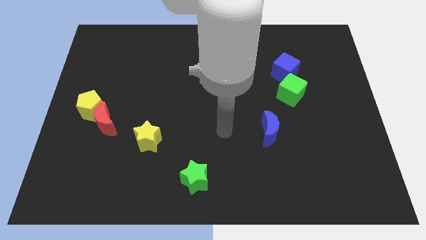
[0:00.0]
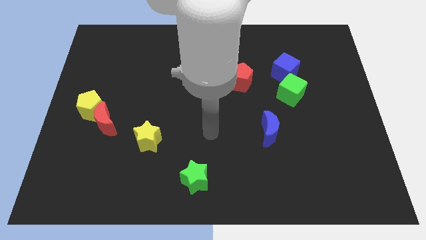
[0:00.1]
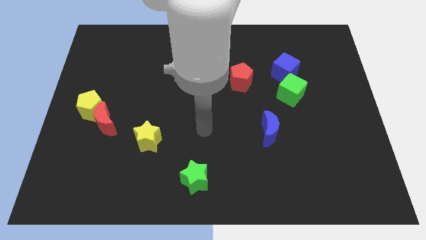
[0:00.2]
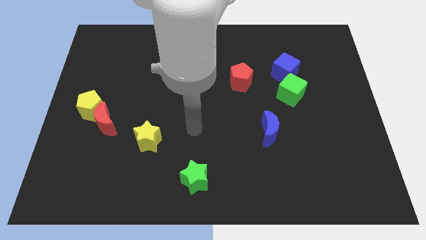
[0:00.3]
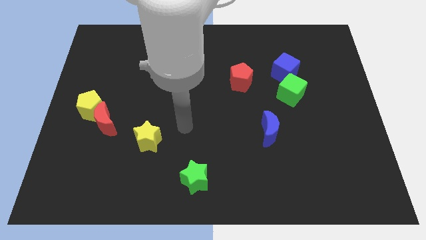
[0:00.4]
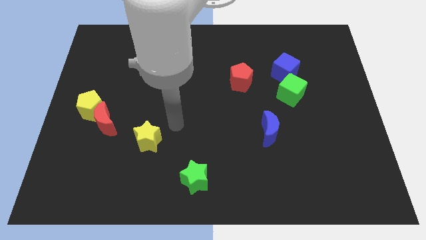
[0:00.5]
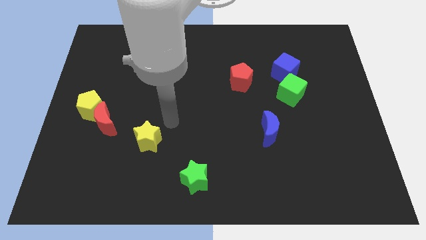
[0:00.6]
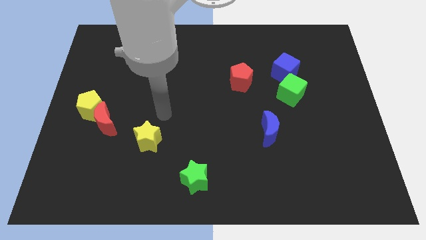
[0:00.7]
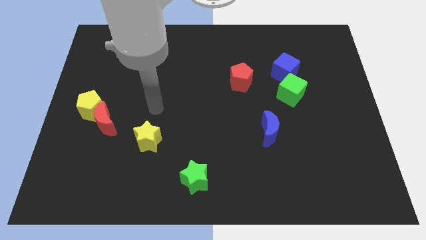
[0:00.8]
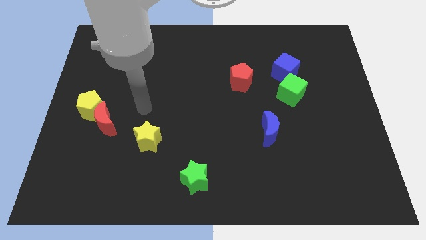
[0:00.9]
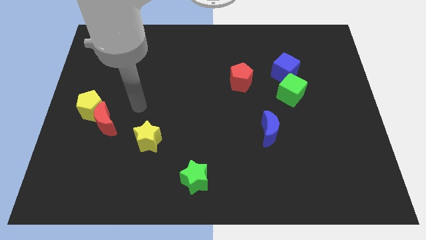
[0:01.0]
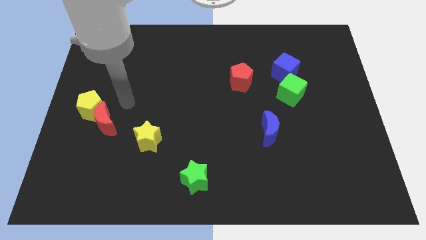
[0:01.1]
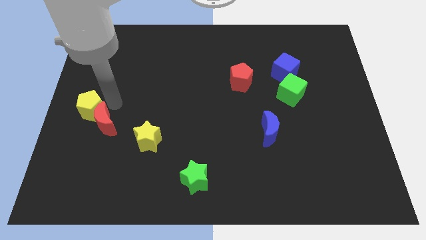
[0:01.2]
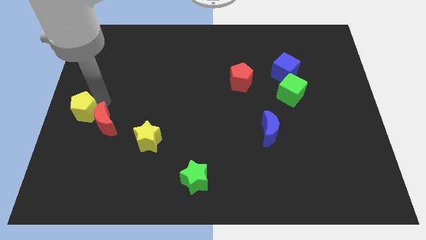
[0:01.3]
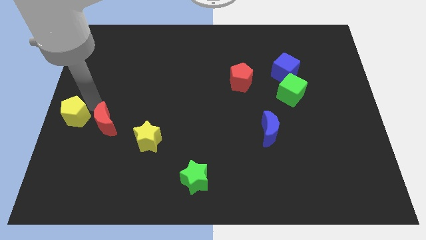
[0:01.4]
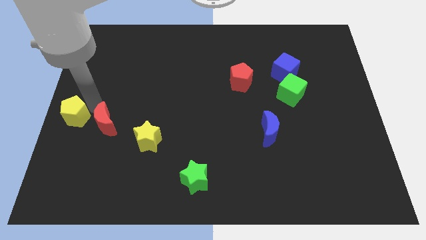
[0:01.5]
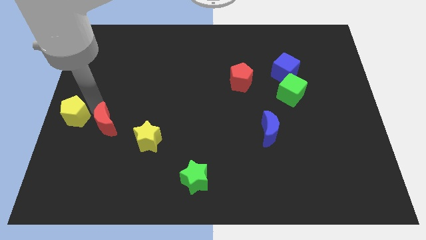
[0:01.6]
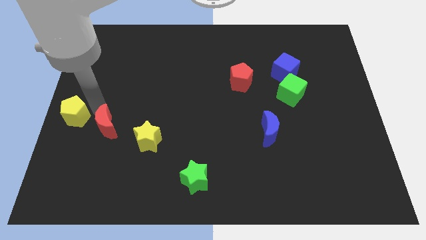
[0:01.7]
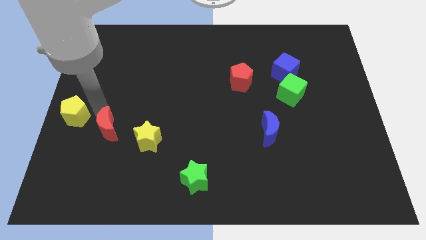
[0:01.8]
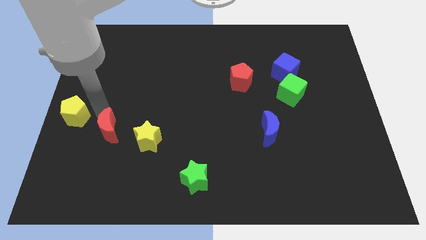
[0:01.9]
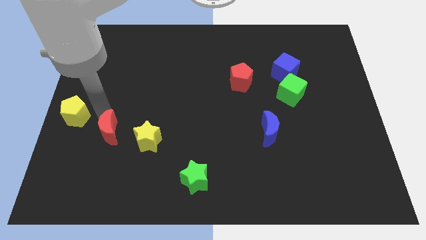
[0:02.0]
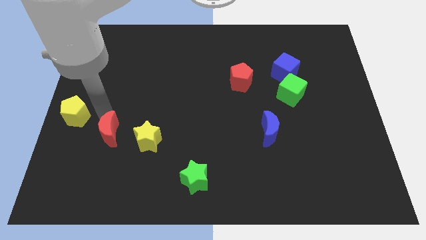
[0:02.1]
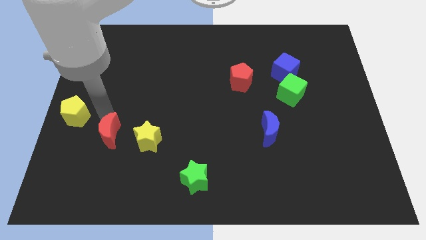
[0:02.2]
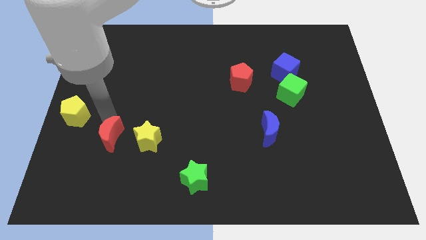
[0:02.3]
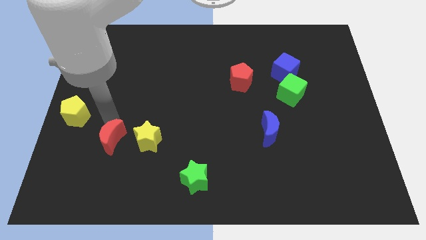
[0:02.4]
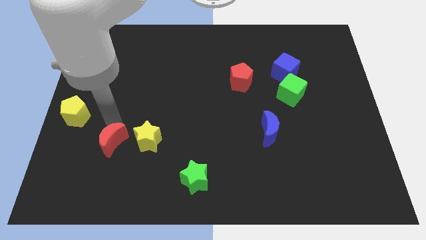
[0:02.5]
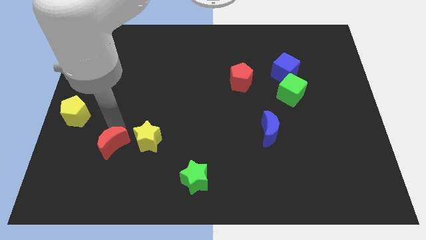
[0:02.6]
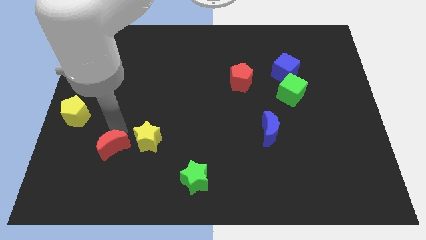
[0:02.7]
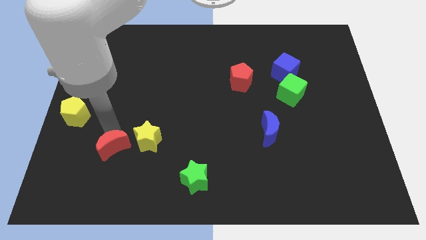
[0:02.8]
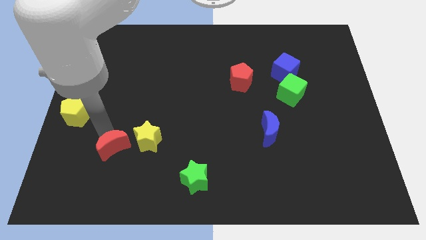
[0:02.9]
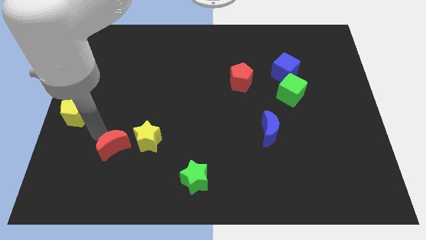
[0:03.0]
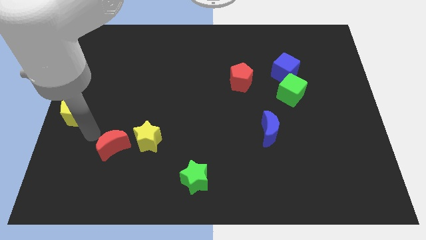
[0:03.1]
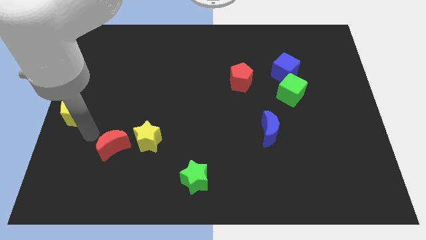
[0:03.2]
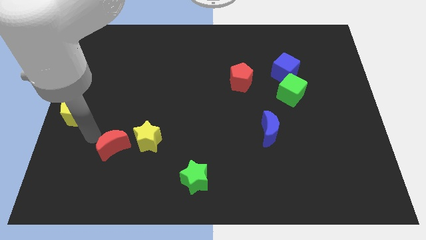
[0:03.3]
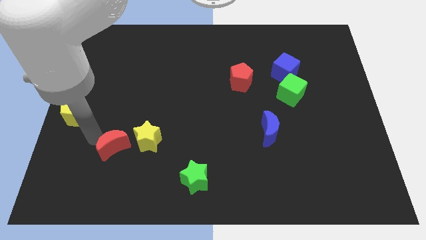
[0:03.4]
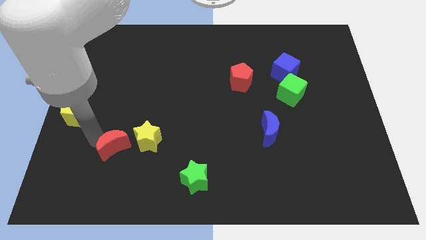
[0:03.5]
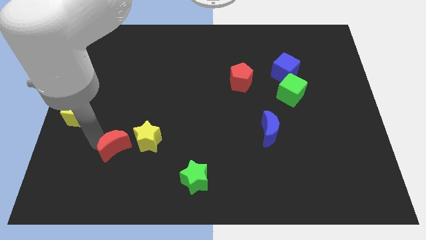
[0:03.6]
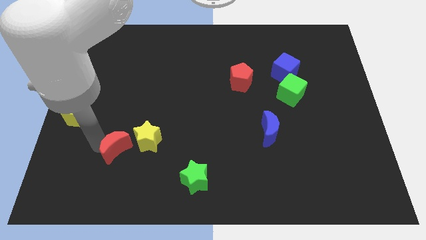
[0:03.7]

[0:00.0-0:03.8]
move the red moon a little downwards and then to the right

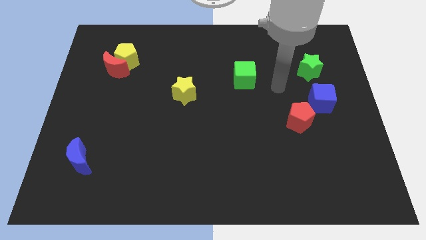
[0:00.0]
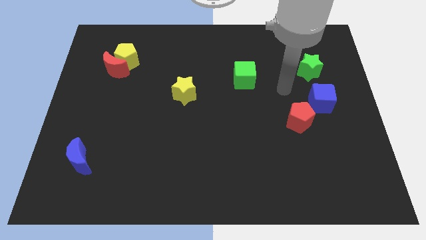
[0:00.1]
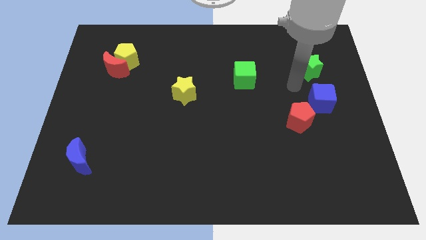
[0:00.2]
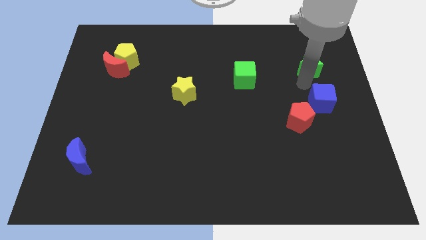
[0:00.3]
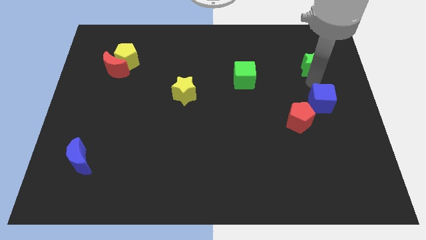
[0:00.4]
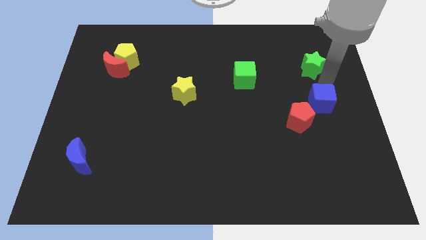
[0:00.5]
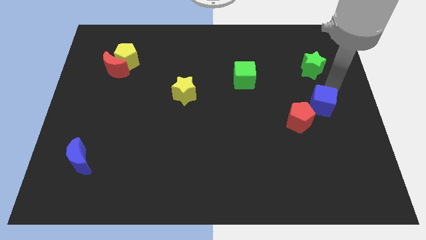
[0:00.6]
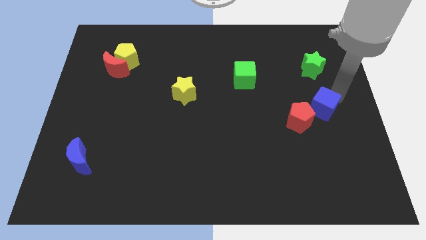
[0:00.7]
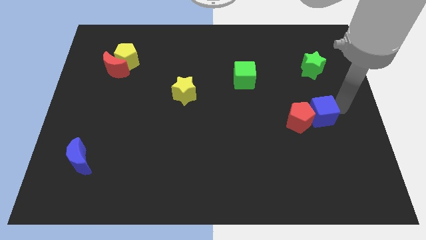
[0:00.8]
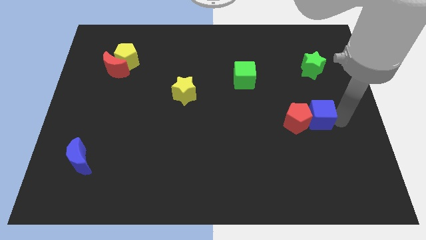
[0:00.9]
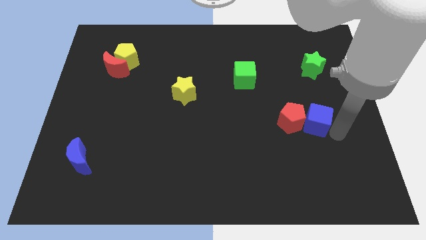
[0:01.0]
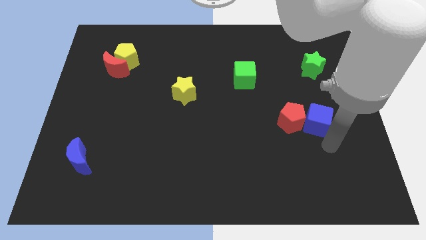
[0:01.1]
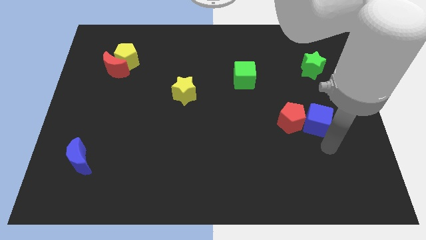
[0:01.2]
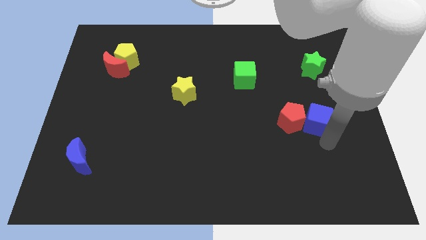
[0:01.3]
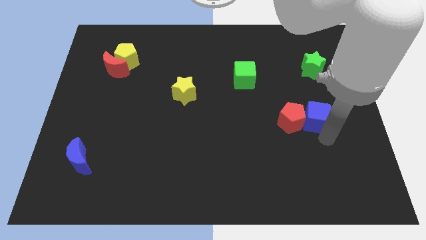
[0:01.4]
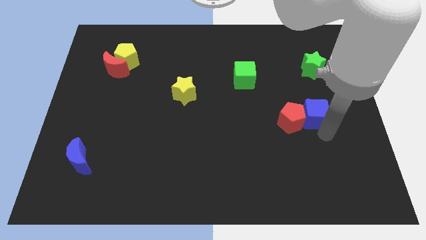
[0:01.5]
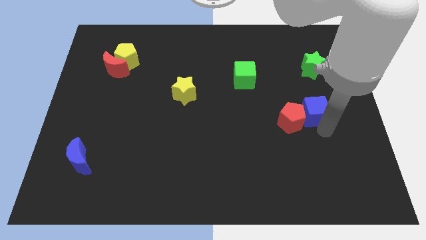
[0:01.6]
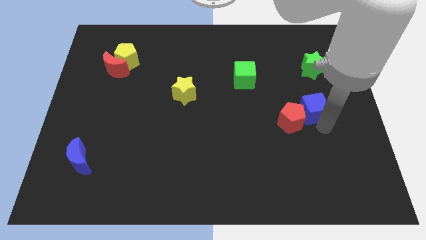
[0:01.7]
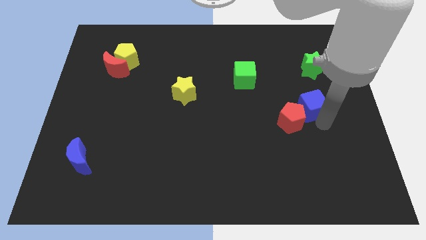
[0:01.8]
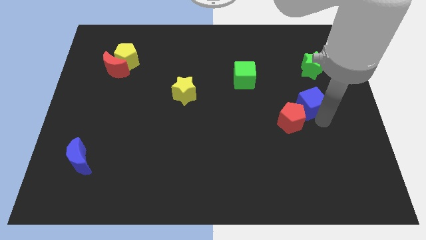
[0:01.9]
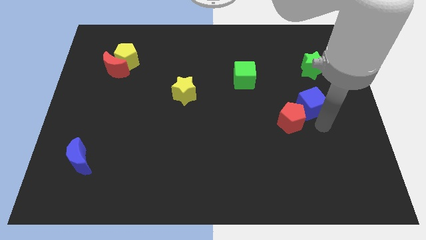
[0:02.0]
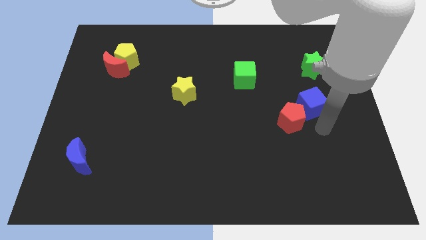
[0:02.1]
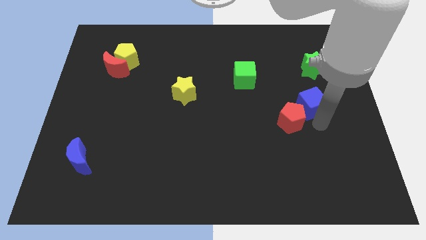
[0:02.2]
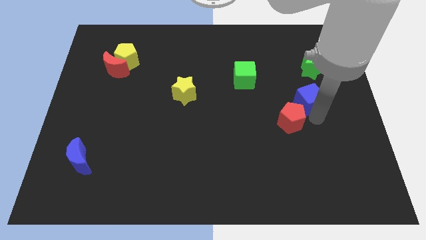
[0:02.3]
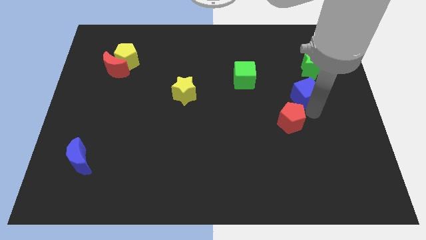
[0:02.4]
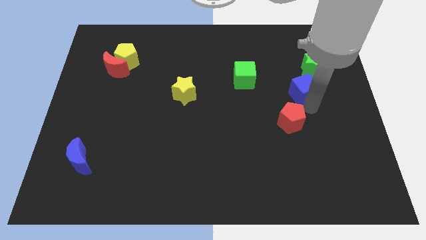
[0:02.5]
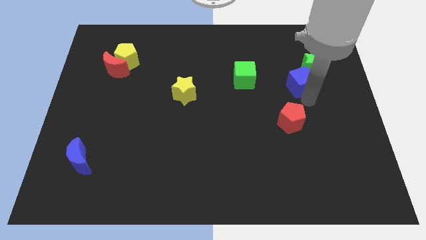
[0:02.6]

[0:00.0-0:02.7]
slightly slide the blue cube upwards and left diagonally

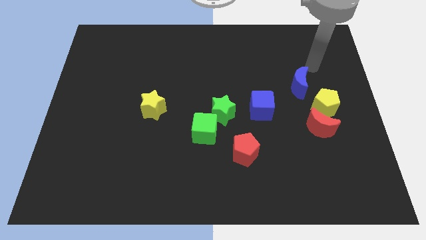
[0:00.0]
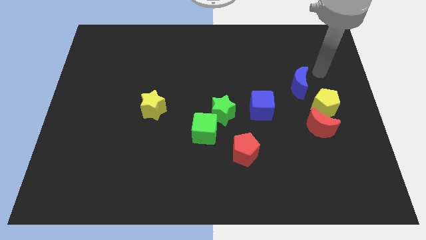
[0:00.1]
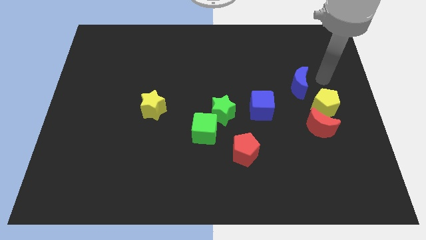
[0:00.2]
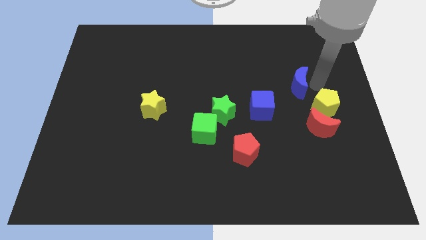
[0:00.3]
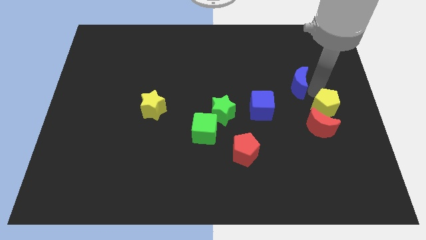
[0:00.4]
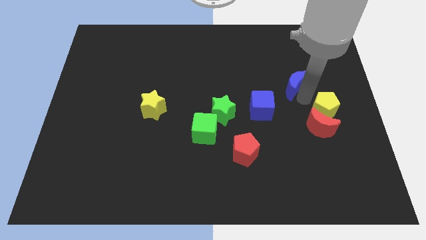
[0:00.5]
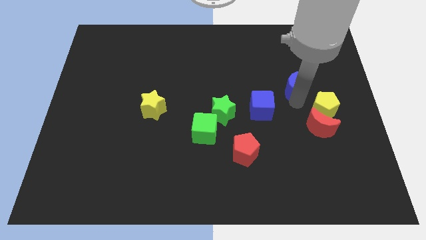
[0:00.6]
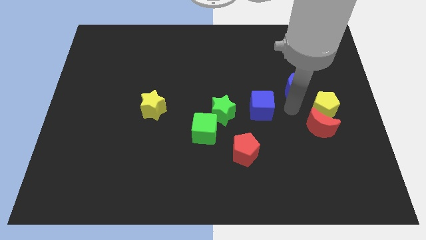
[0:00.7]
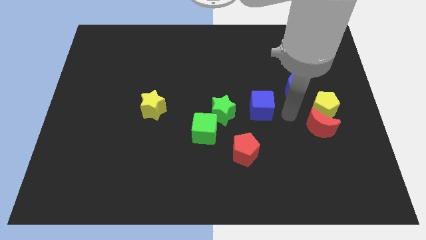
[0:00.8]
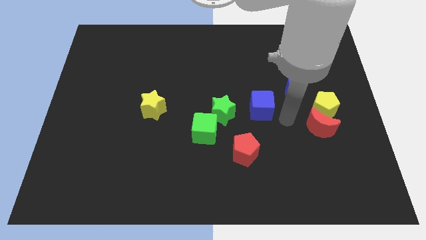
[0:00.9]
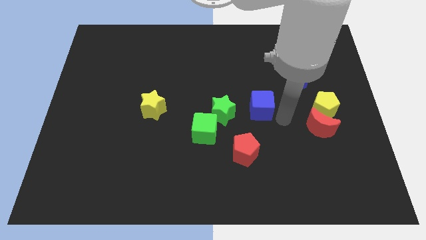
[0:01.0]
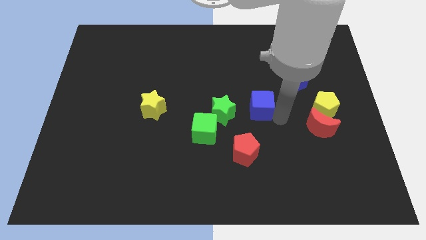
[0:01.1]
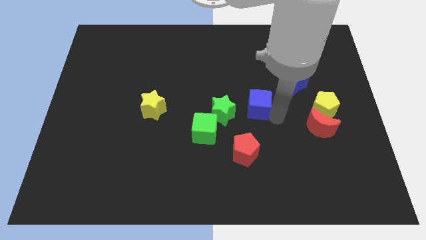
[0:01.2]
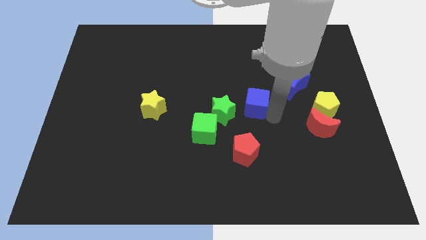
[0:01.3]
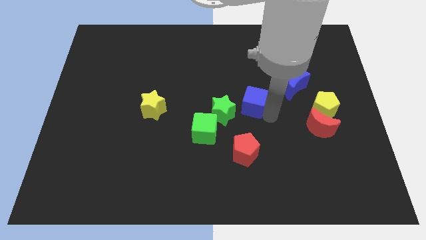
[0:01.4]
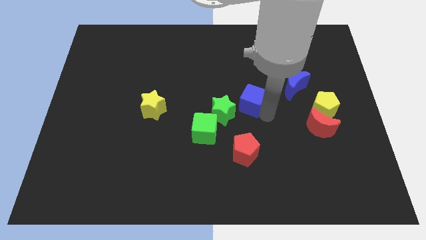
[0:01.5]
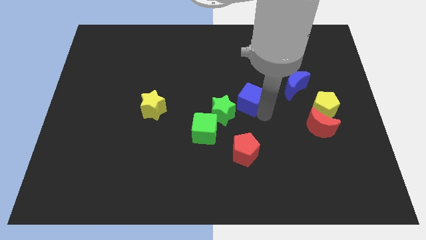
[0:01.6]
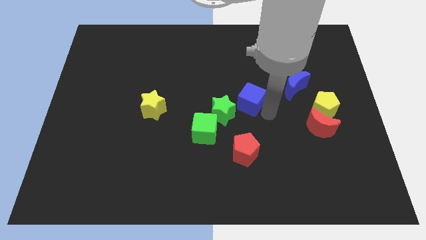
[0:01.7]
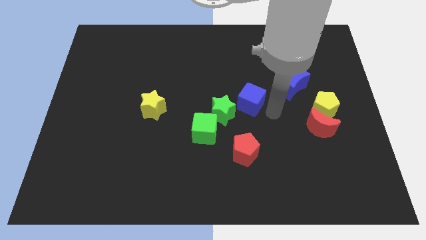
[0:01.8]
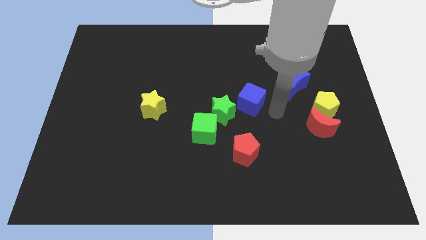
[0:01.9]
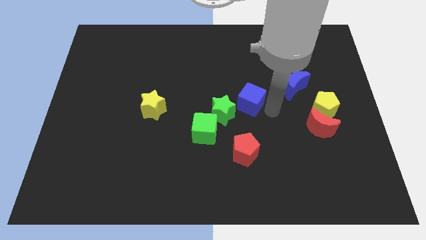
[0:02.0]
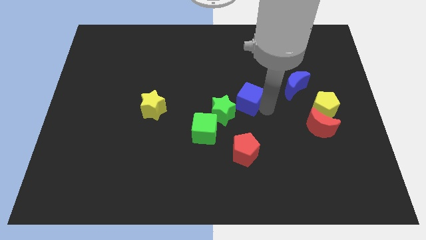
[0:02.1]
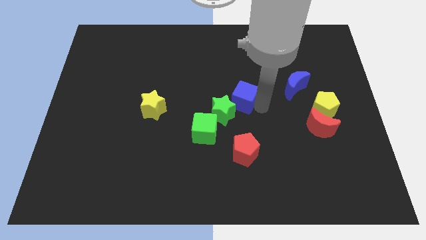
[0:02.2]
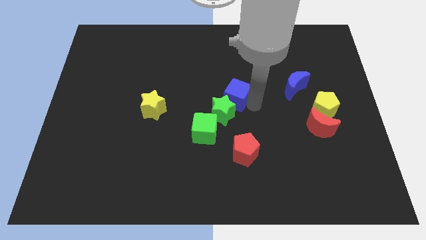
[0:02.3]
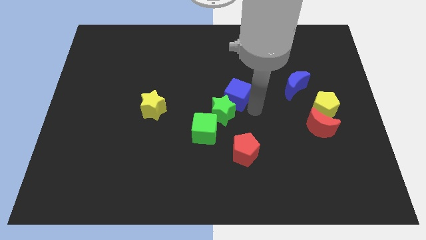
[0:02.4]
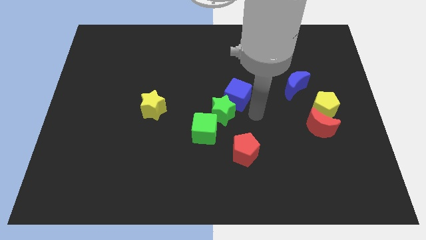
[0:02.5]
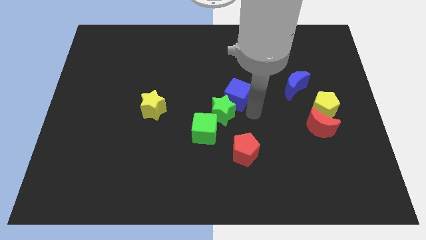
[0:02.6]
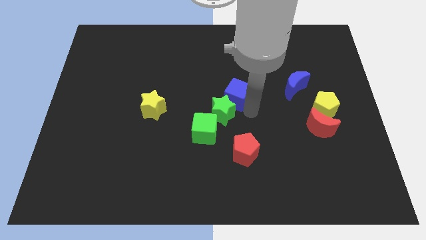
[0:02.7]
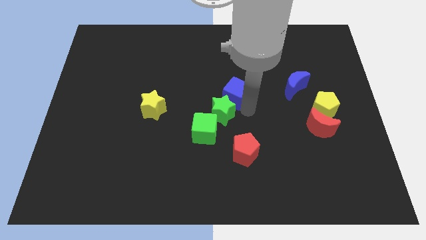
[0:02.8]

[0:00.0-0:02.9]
push the blue cube up and to the left somewhat
